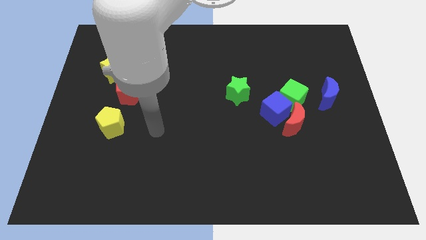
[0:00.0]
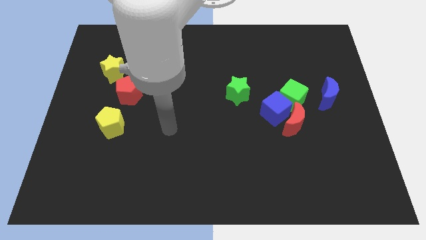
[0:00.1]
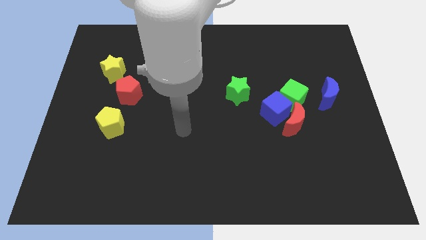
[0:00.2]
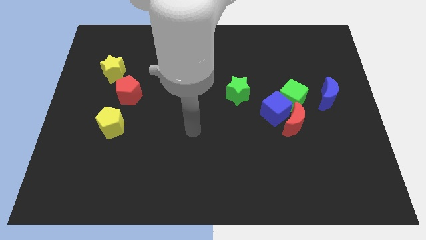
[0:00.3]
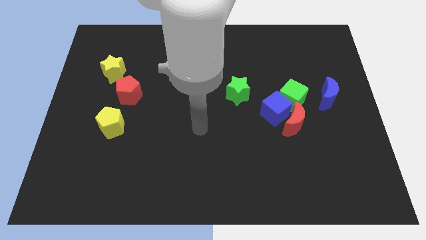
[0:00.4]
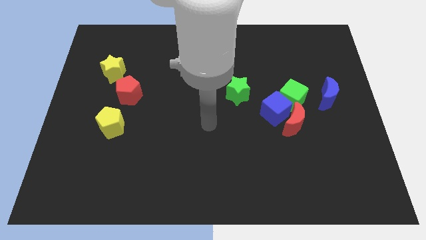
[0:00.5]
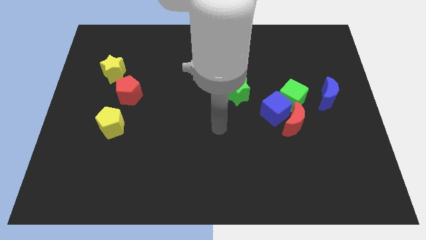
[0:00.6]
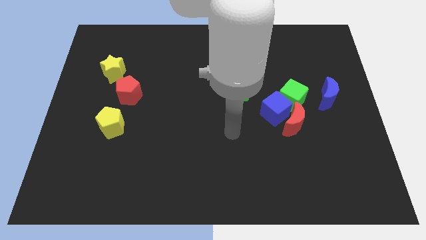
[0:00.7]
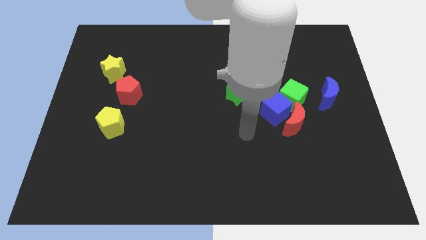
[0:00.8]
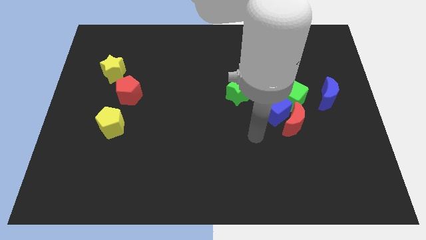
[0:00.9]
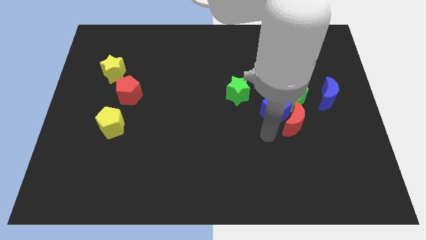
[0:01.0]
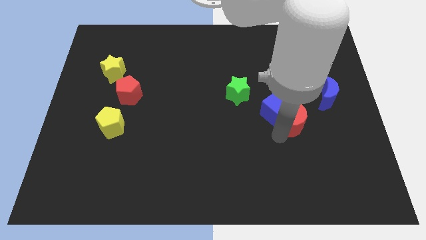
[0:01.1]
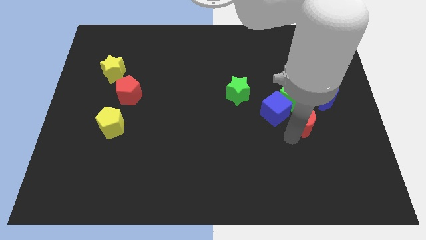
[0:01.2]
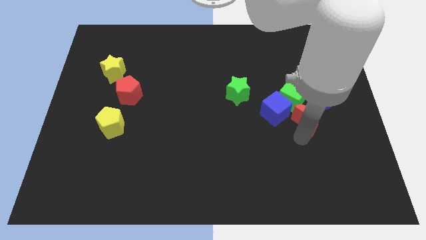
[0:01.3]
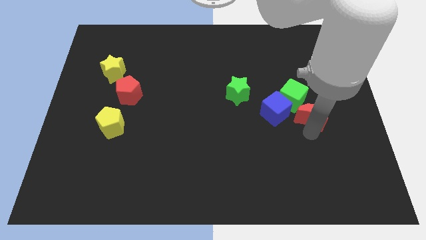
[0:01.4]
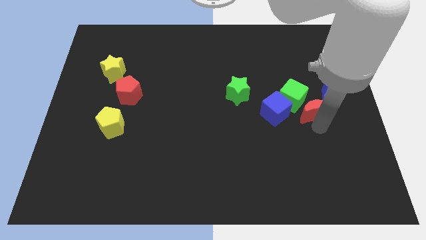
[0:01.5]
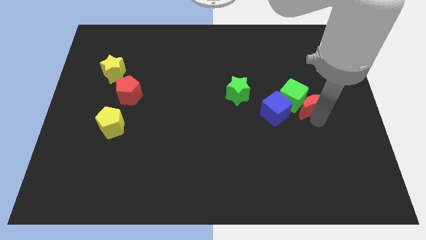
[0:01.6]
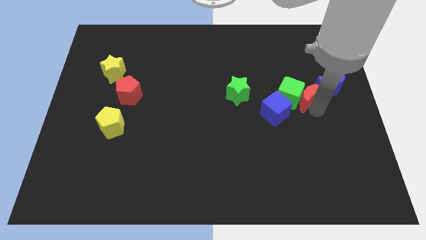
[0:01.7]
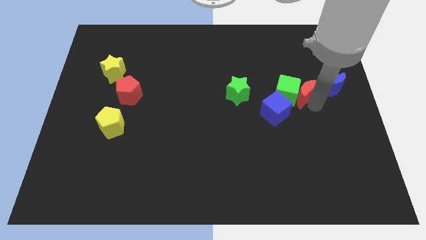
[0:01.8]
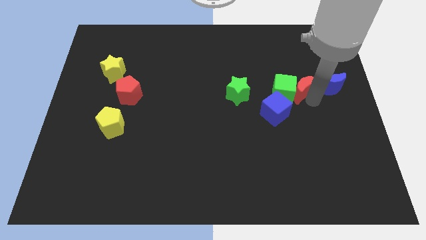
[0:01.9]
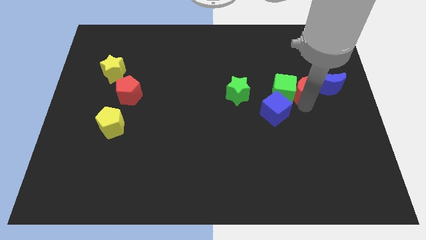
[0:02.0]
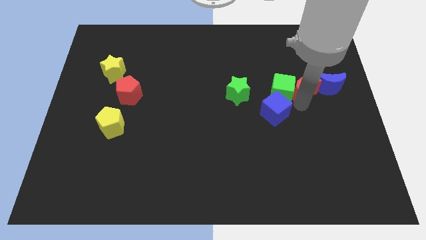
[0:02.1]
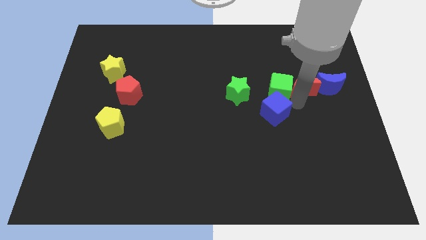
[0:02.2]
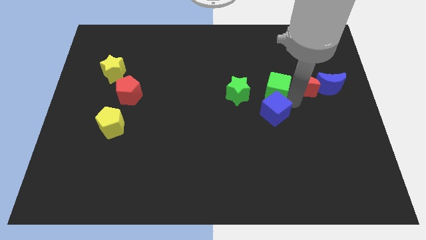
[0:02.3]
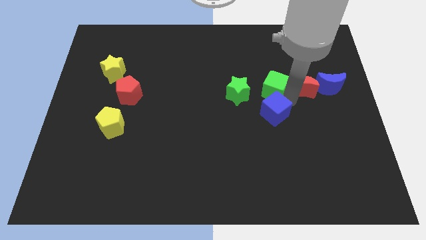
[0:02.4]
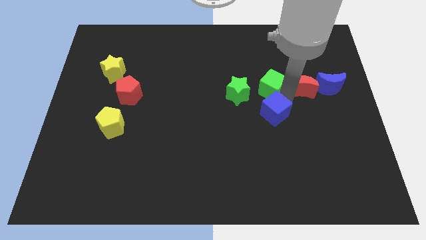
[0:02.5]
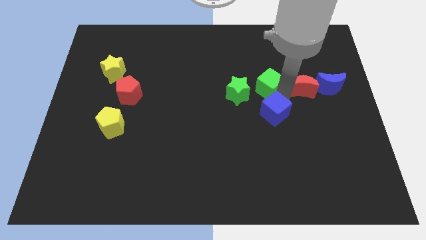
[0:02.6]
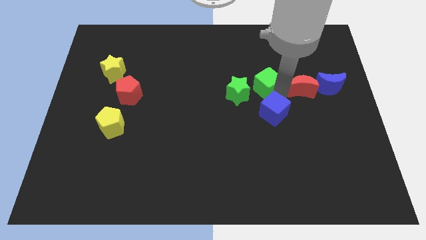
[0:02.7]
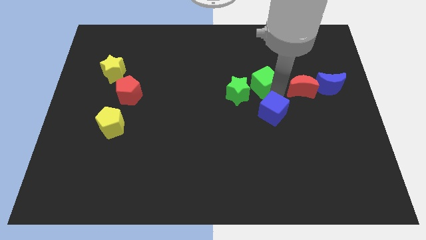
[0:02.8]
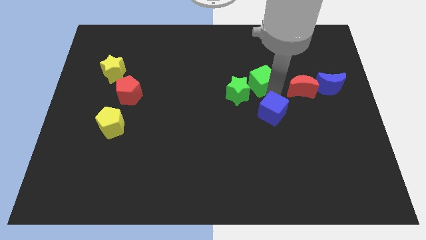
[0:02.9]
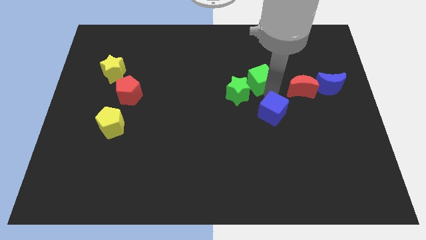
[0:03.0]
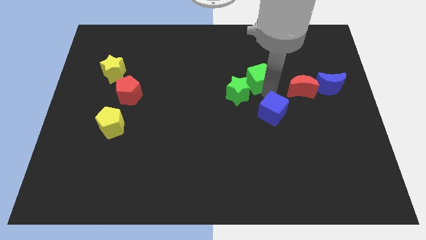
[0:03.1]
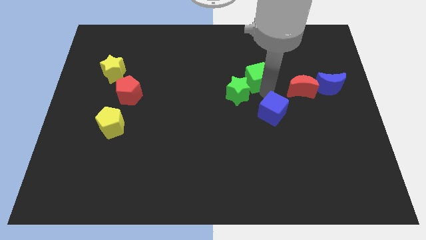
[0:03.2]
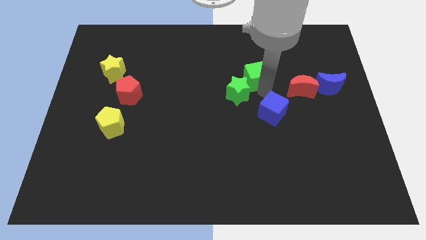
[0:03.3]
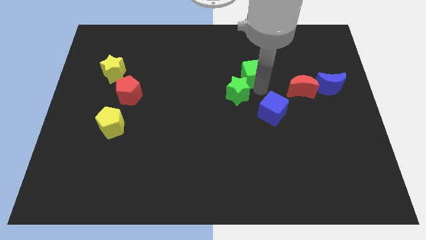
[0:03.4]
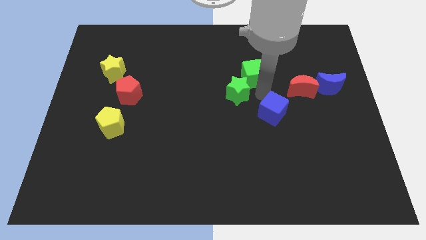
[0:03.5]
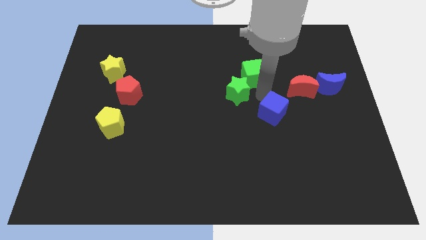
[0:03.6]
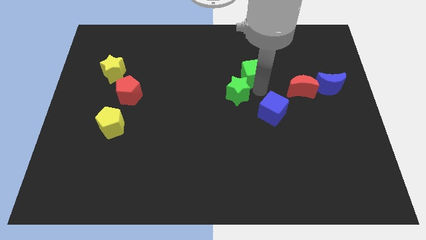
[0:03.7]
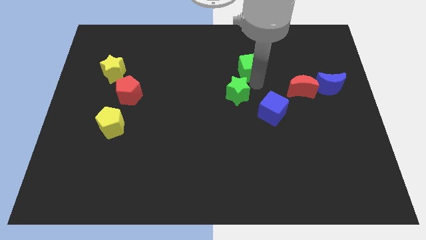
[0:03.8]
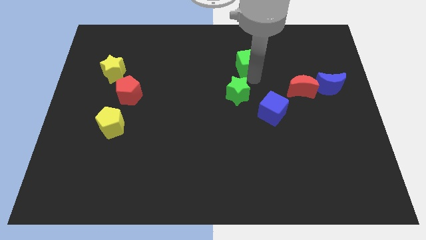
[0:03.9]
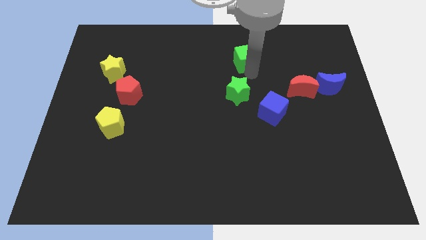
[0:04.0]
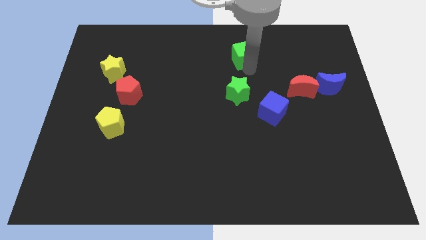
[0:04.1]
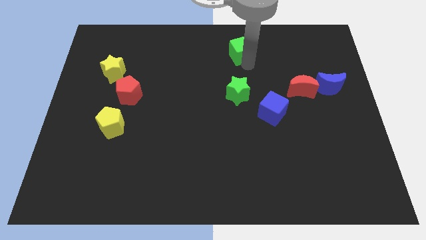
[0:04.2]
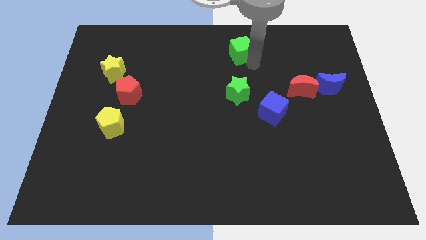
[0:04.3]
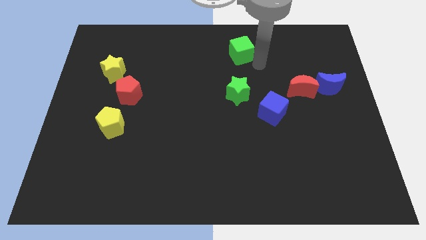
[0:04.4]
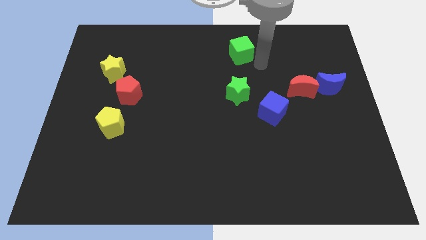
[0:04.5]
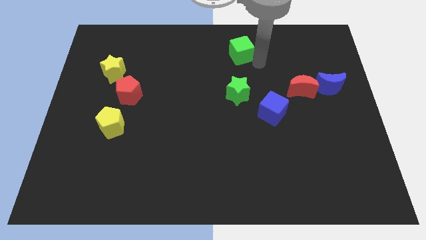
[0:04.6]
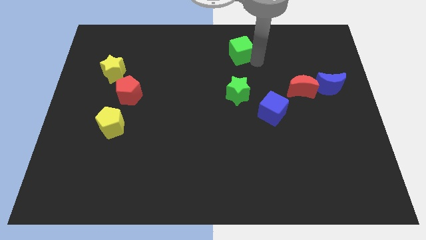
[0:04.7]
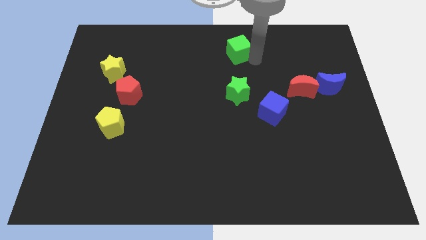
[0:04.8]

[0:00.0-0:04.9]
put the green cube to the towards your base

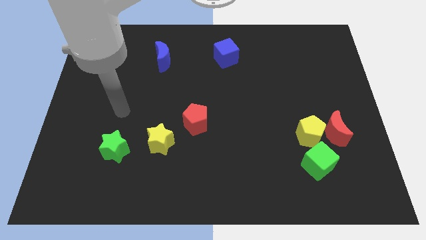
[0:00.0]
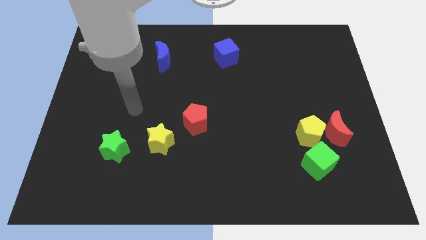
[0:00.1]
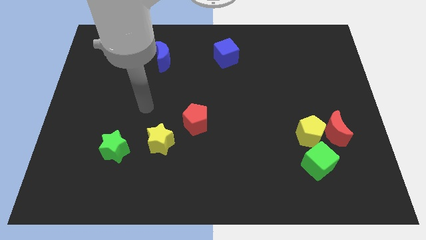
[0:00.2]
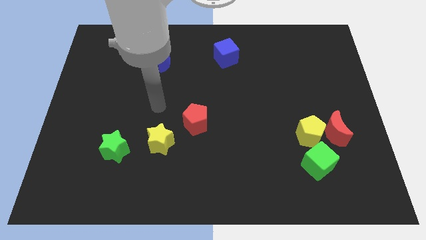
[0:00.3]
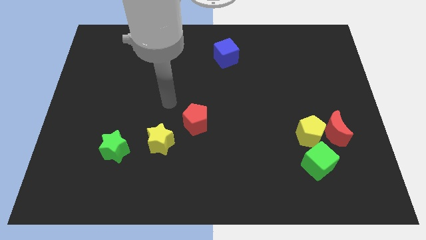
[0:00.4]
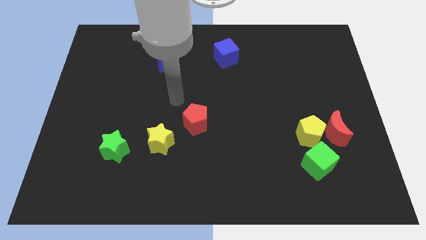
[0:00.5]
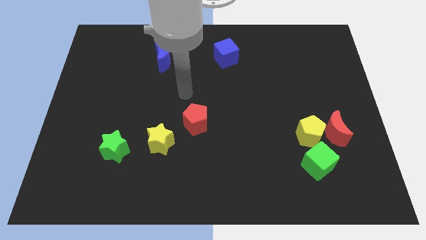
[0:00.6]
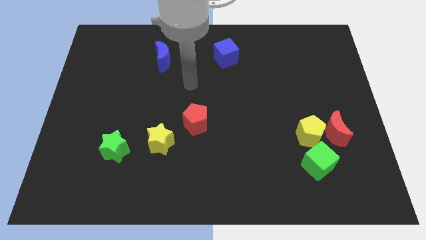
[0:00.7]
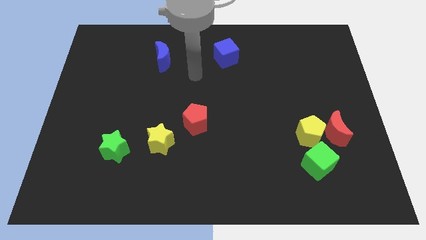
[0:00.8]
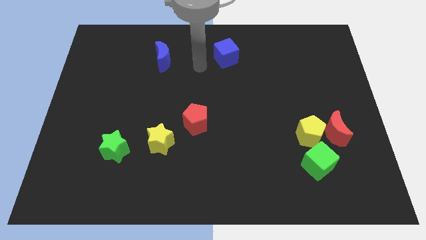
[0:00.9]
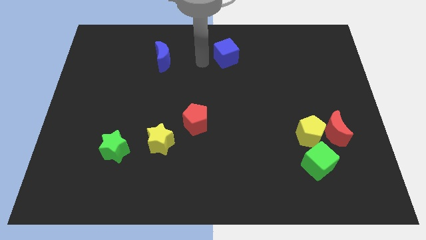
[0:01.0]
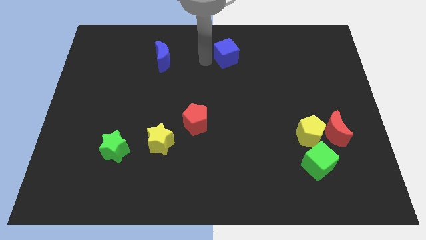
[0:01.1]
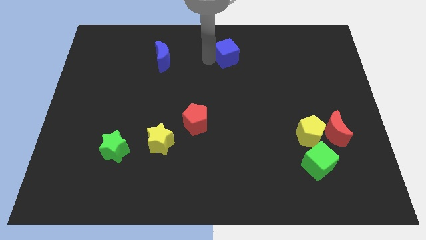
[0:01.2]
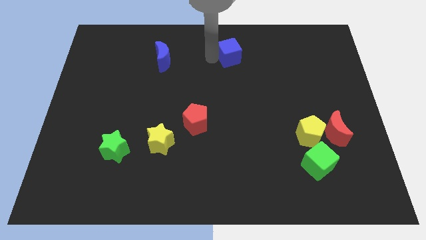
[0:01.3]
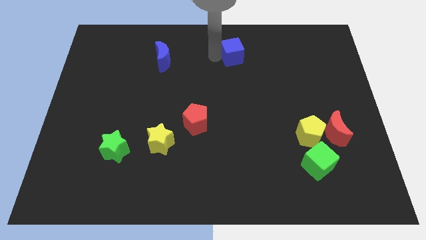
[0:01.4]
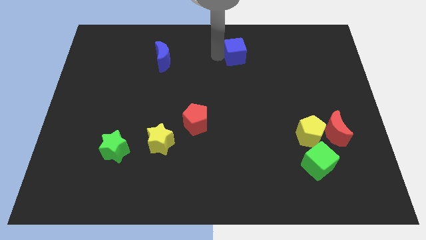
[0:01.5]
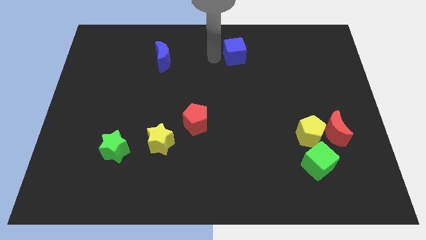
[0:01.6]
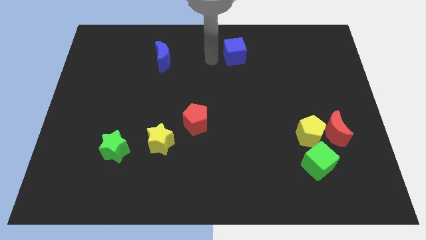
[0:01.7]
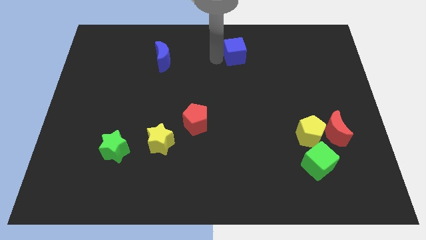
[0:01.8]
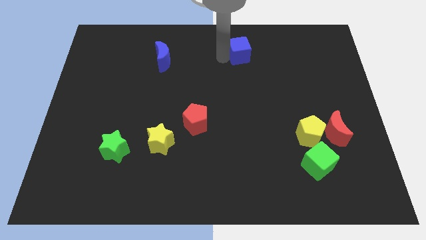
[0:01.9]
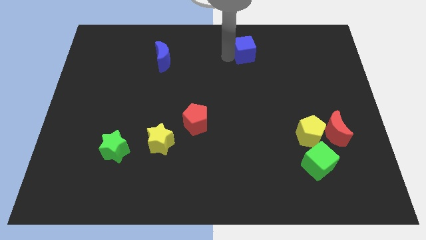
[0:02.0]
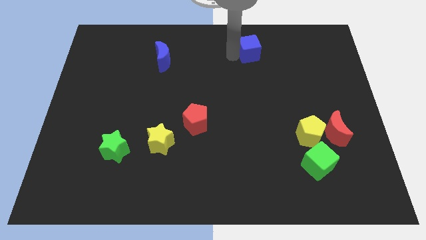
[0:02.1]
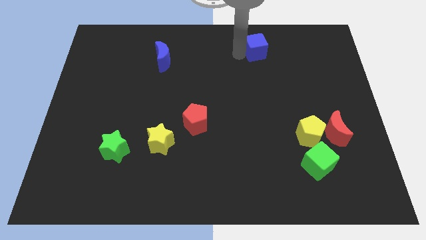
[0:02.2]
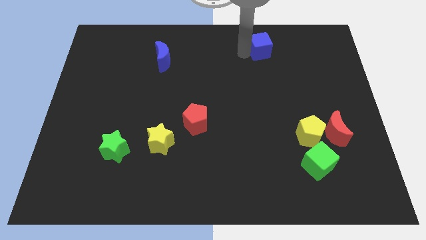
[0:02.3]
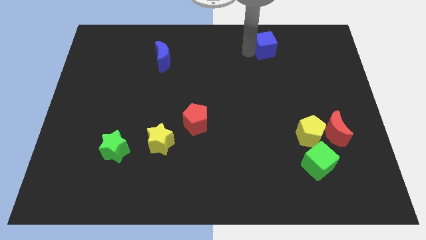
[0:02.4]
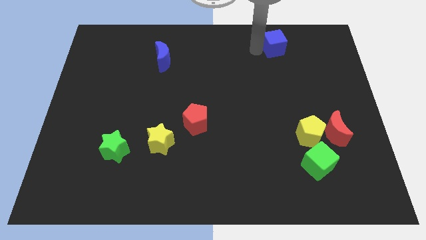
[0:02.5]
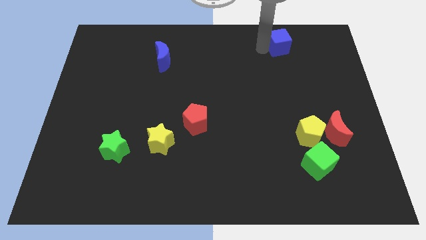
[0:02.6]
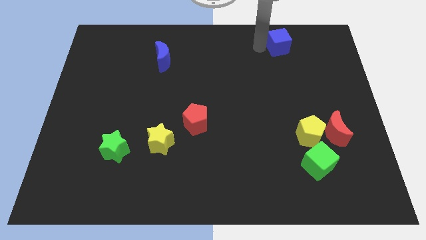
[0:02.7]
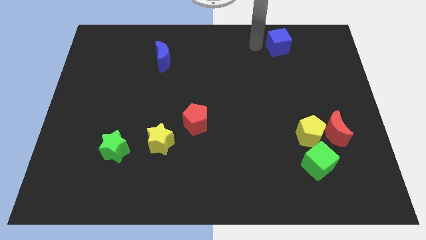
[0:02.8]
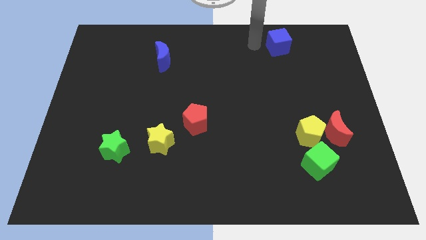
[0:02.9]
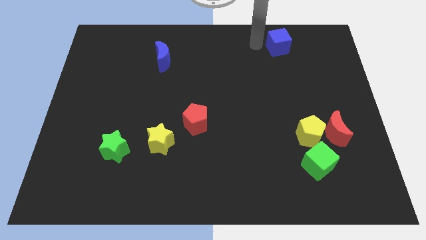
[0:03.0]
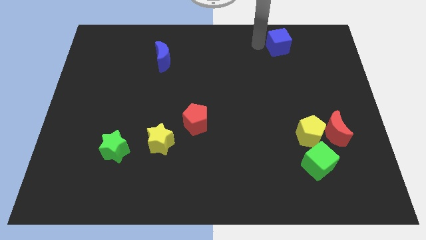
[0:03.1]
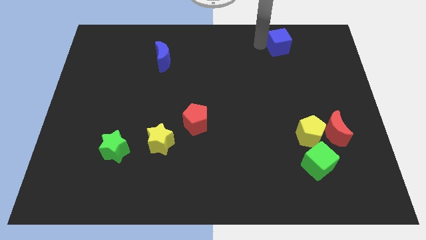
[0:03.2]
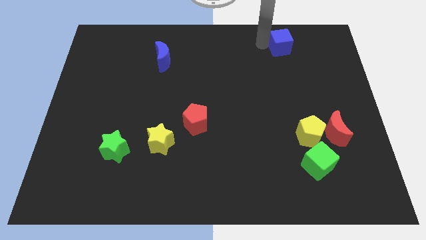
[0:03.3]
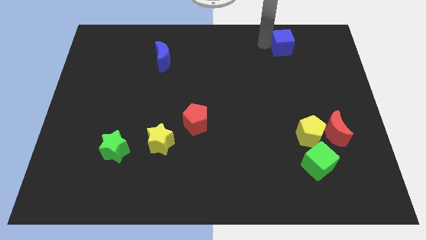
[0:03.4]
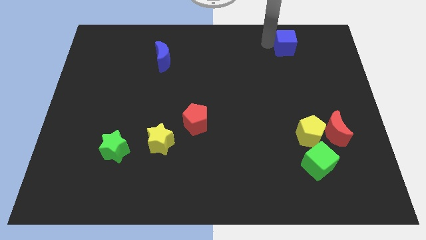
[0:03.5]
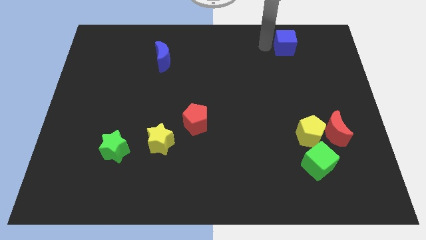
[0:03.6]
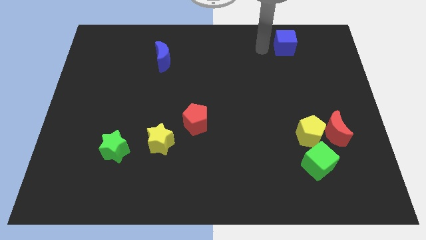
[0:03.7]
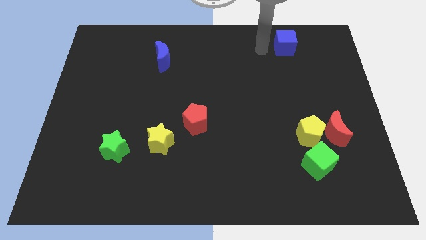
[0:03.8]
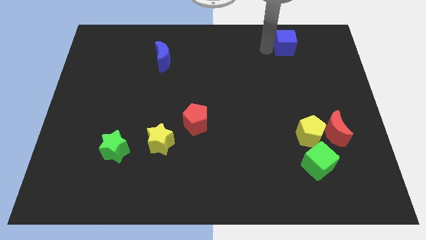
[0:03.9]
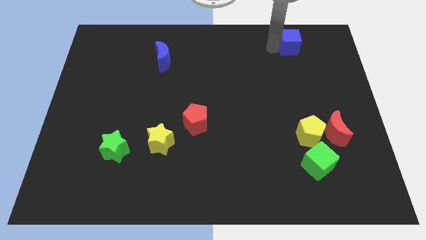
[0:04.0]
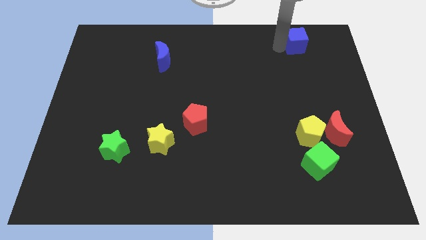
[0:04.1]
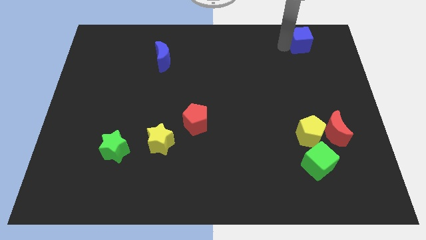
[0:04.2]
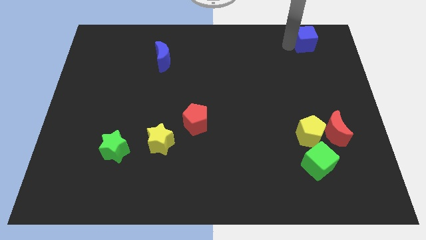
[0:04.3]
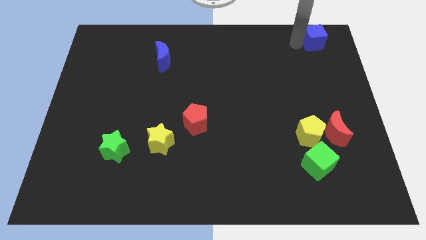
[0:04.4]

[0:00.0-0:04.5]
push the blue cube to the top right corner
